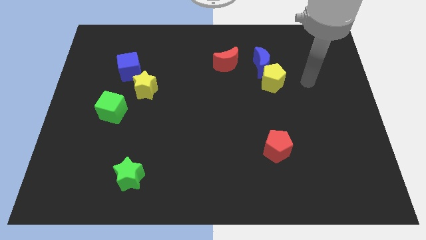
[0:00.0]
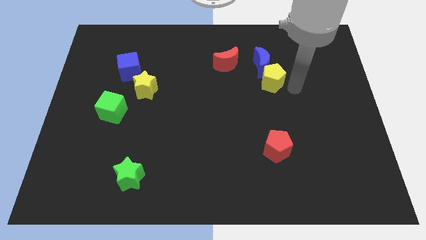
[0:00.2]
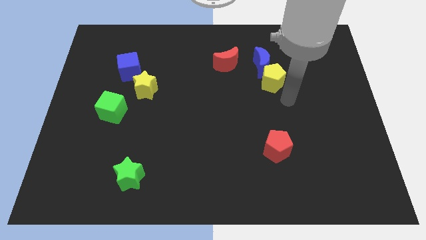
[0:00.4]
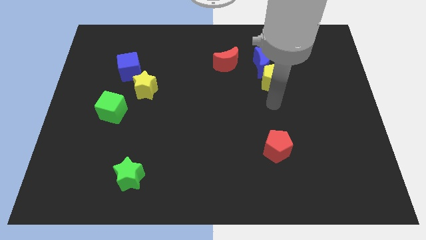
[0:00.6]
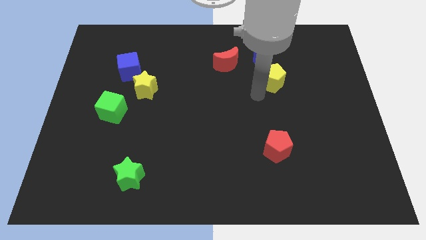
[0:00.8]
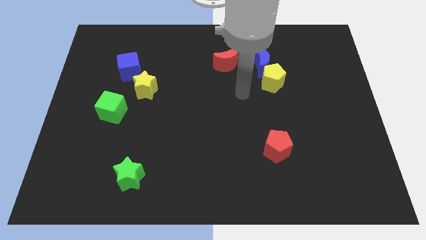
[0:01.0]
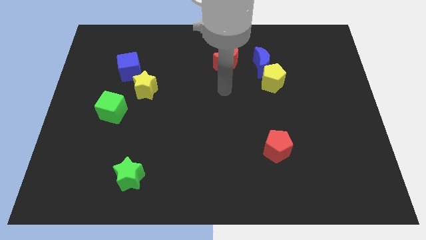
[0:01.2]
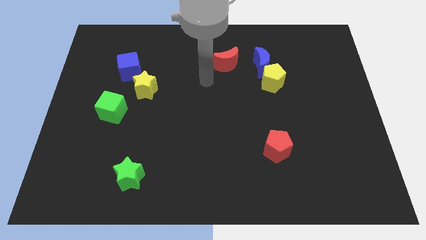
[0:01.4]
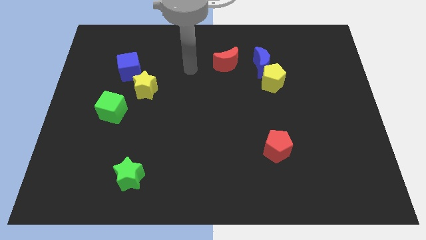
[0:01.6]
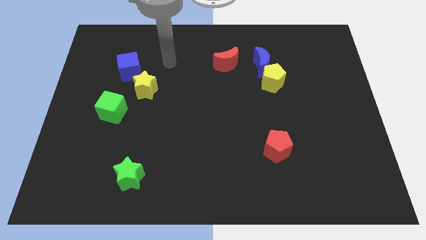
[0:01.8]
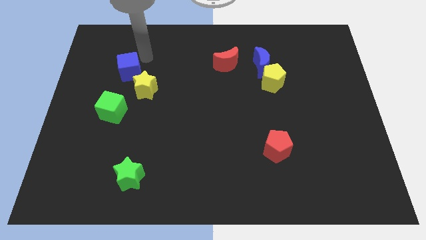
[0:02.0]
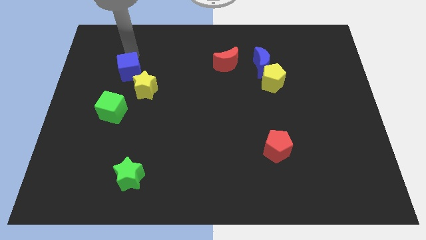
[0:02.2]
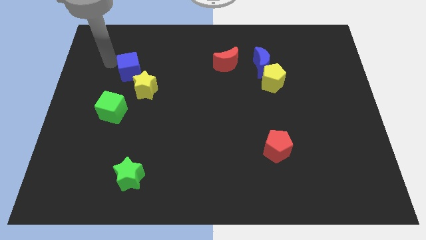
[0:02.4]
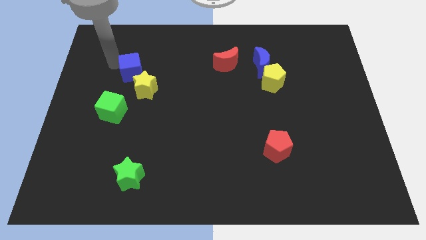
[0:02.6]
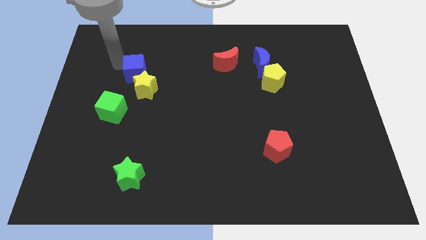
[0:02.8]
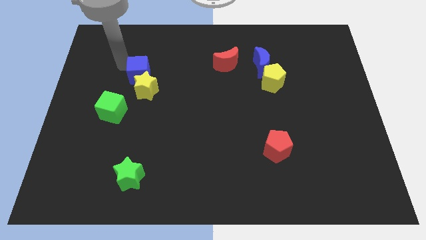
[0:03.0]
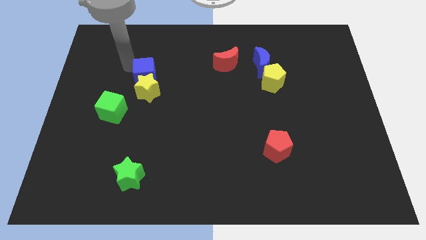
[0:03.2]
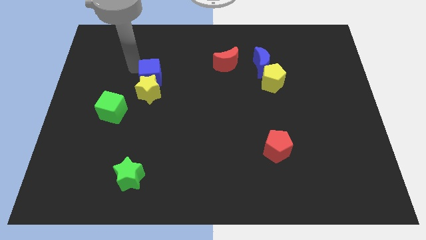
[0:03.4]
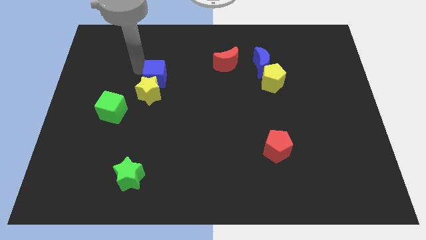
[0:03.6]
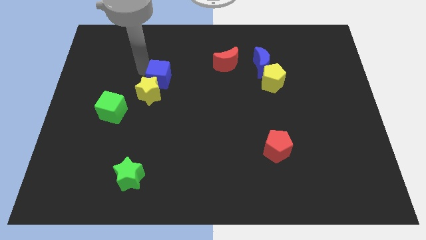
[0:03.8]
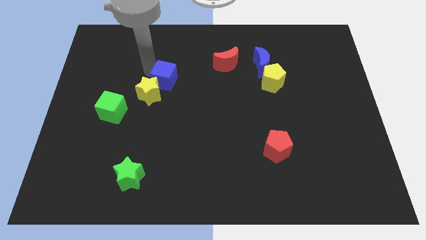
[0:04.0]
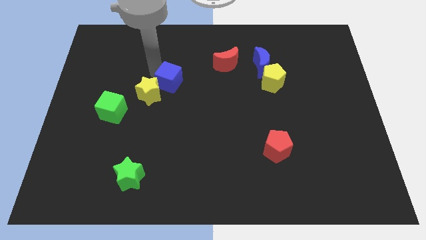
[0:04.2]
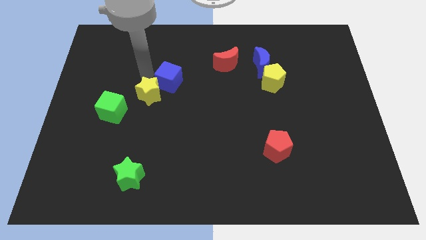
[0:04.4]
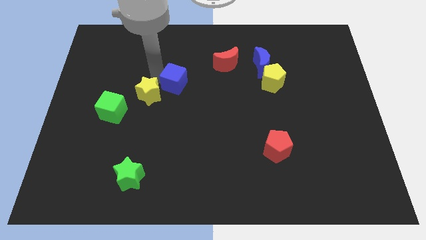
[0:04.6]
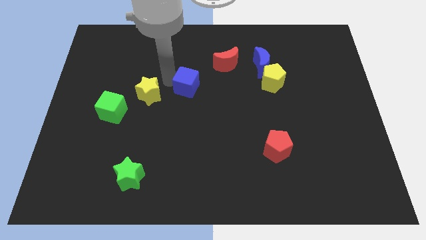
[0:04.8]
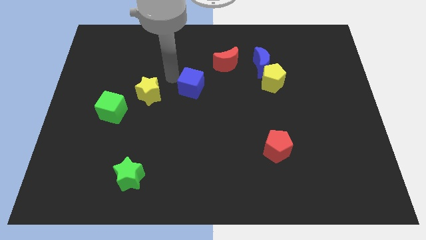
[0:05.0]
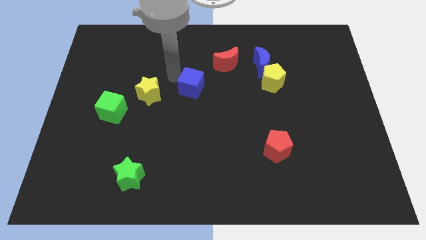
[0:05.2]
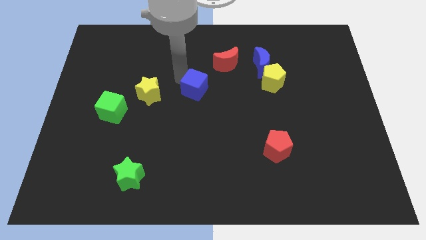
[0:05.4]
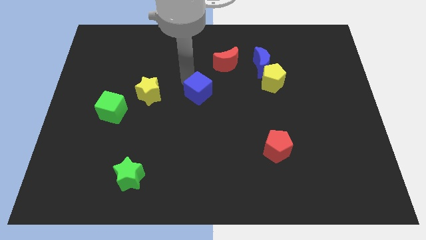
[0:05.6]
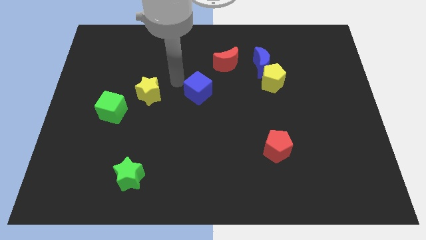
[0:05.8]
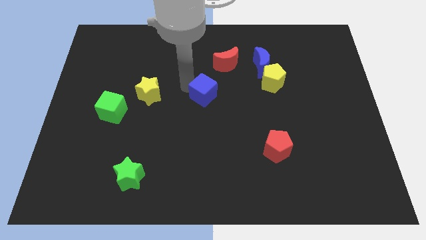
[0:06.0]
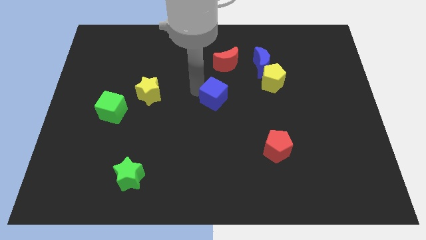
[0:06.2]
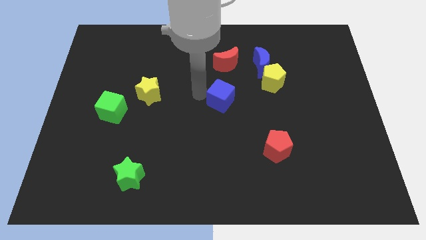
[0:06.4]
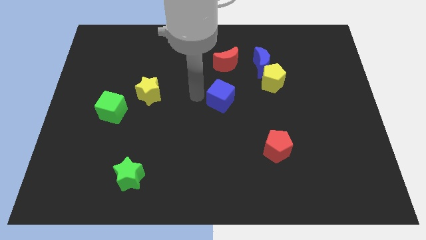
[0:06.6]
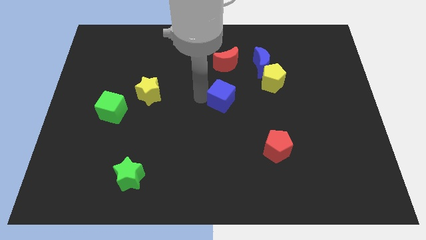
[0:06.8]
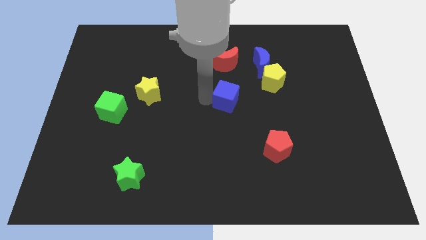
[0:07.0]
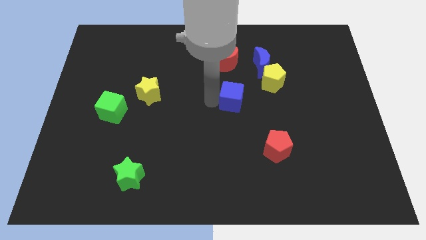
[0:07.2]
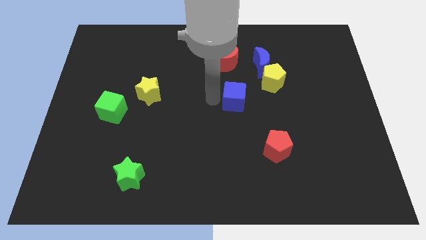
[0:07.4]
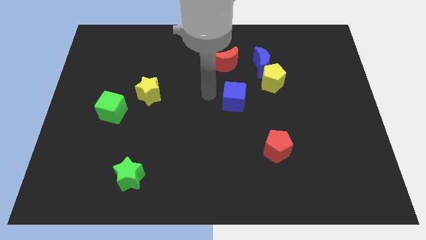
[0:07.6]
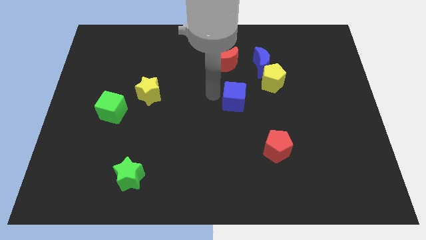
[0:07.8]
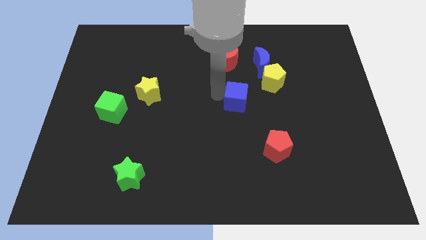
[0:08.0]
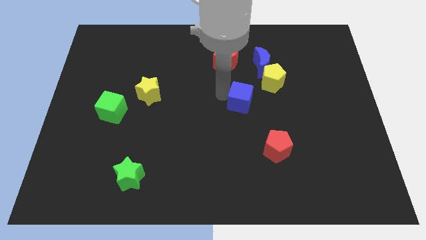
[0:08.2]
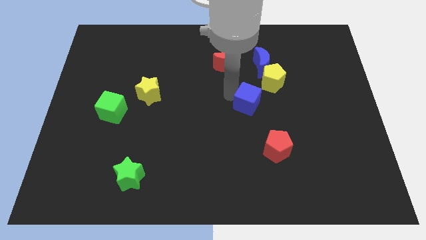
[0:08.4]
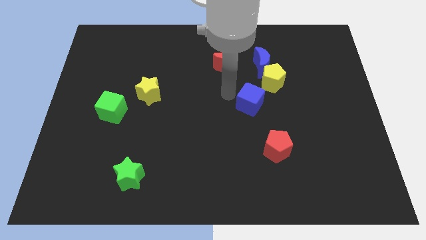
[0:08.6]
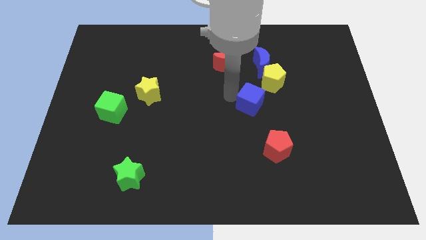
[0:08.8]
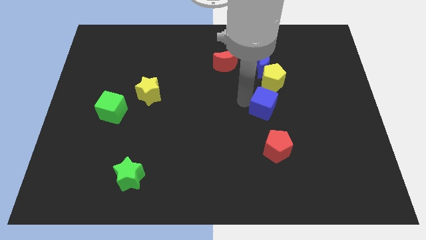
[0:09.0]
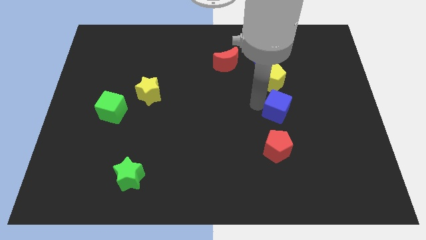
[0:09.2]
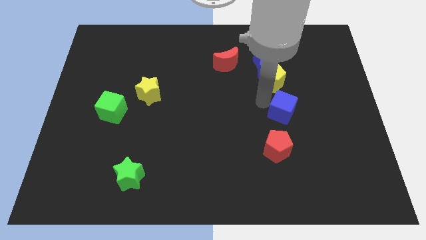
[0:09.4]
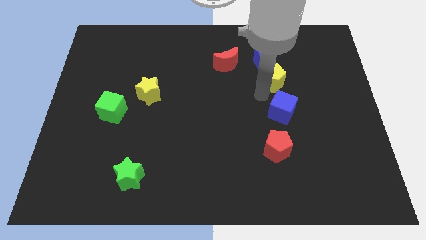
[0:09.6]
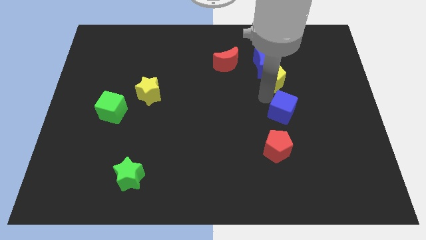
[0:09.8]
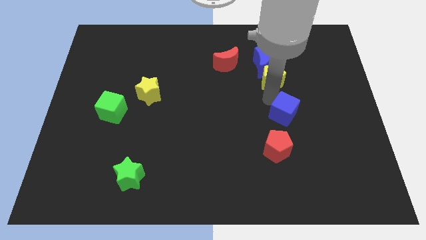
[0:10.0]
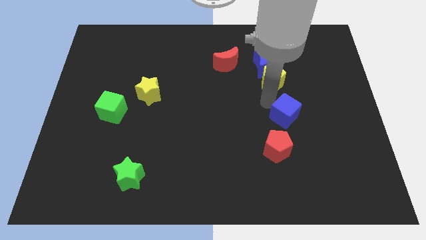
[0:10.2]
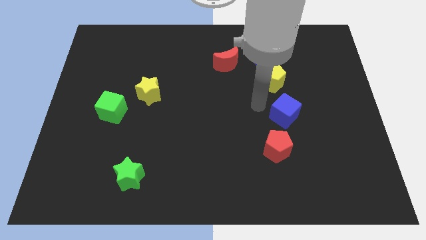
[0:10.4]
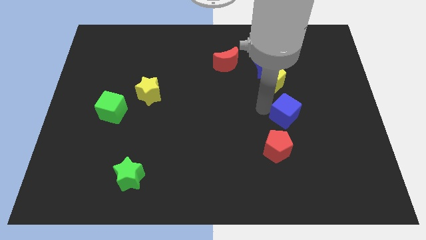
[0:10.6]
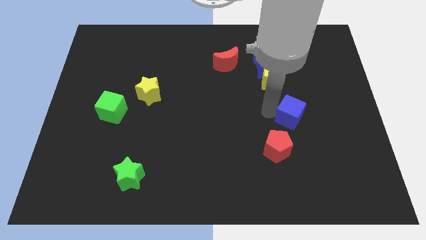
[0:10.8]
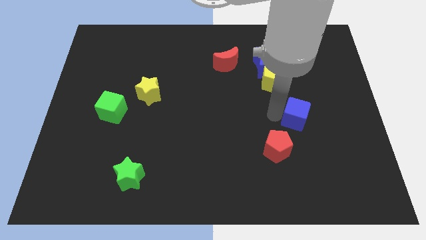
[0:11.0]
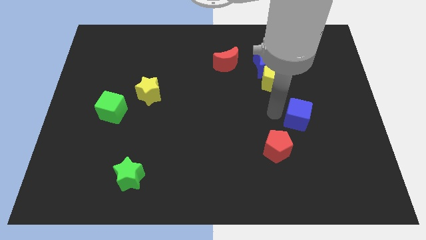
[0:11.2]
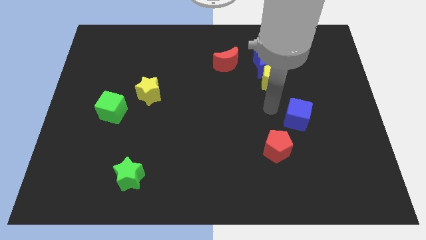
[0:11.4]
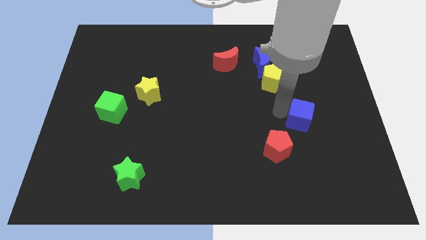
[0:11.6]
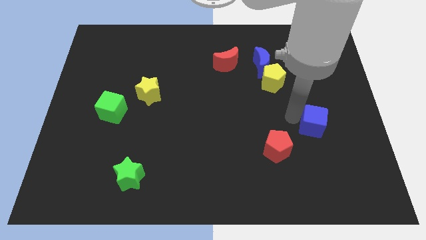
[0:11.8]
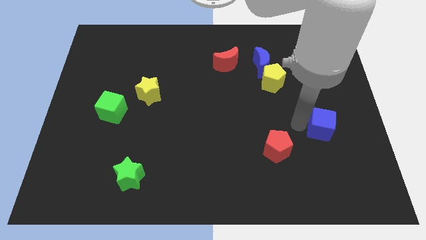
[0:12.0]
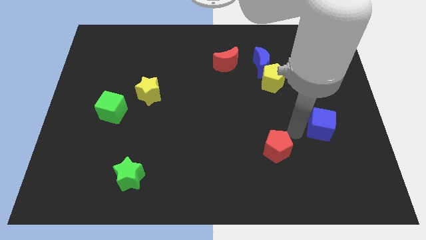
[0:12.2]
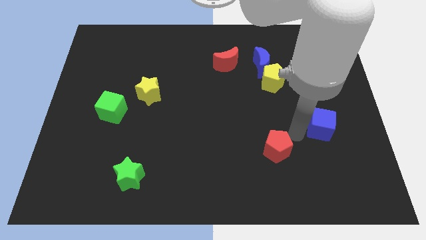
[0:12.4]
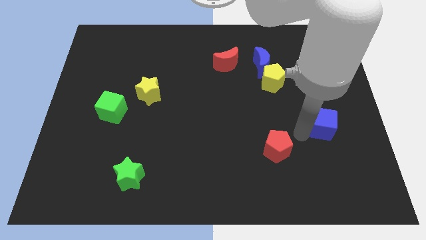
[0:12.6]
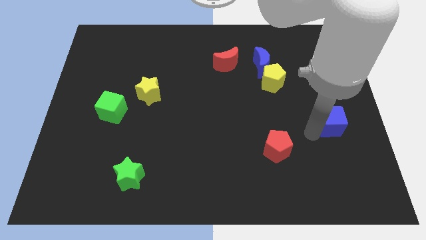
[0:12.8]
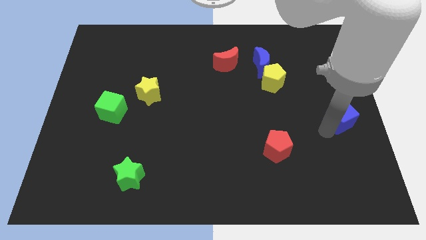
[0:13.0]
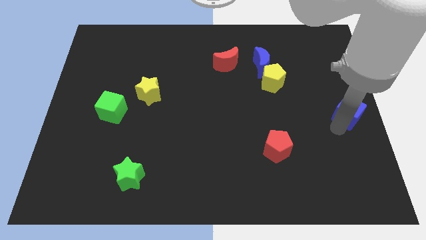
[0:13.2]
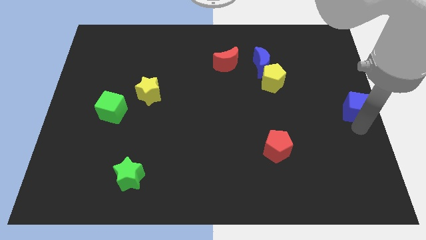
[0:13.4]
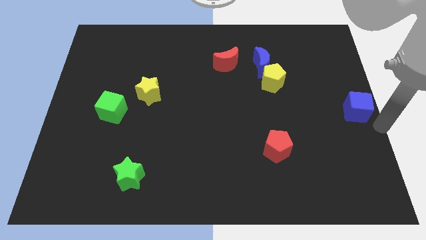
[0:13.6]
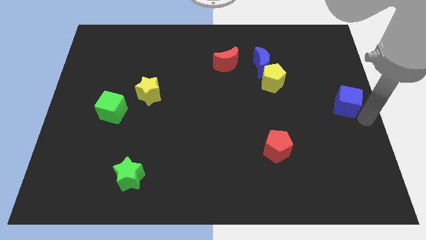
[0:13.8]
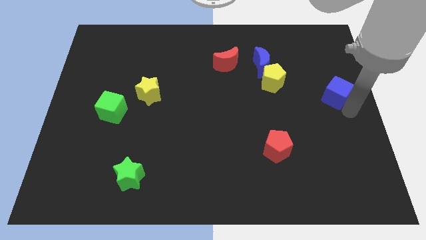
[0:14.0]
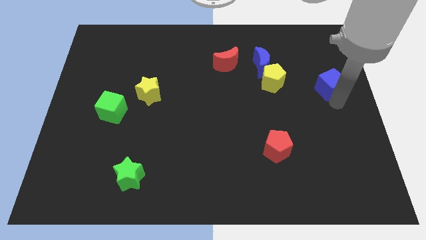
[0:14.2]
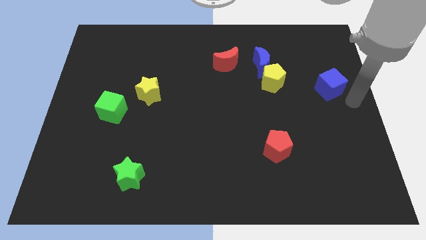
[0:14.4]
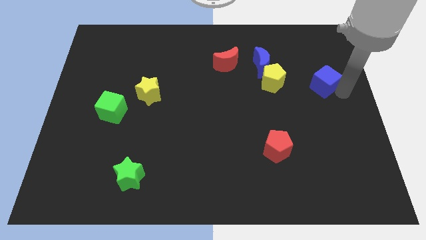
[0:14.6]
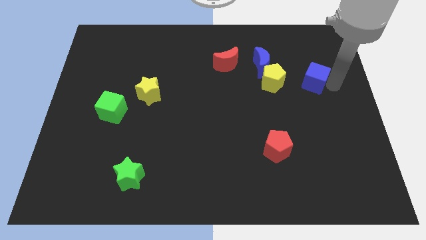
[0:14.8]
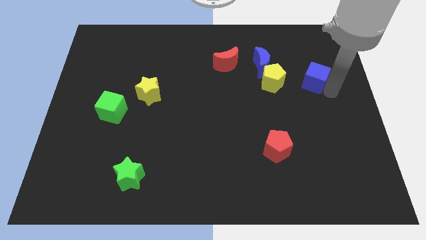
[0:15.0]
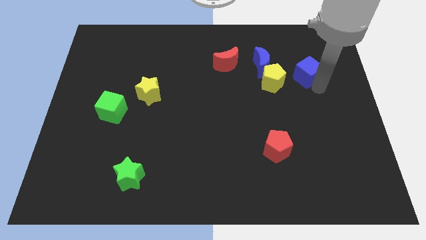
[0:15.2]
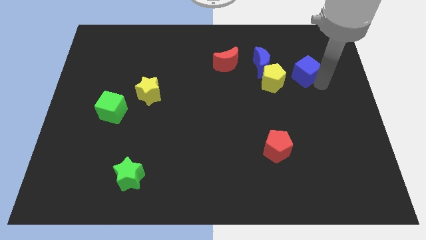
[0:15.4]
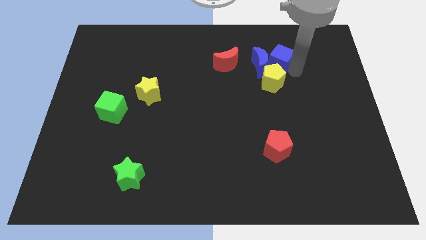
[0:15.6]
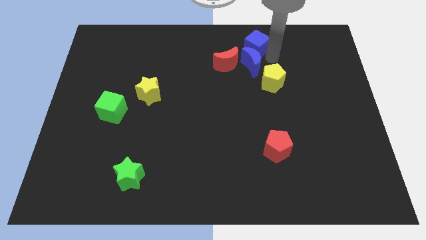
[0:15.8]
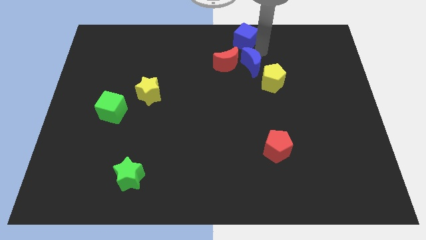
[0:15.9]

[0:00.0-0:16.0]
push the blue cube to the towards your base
